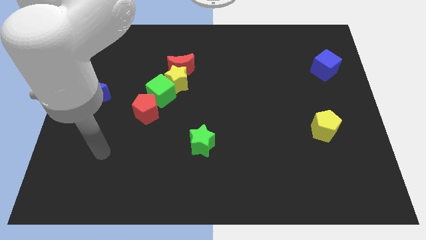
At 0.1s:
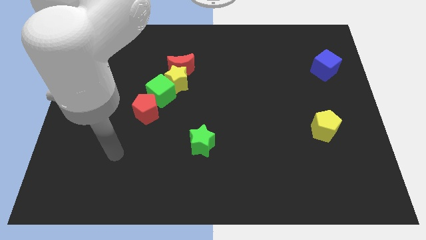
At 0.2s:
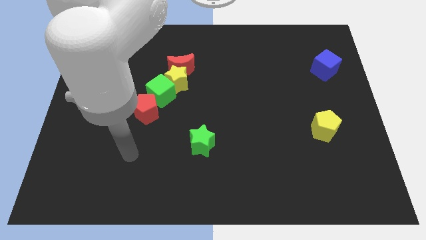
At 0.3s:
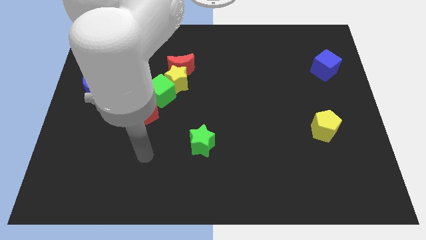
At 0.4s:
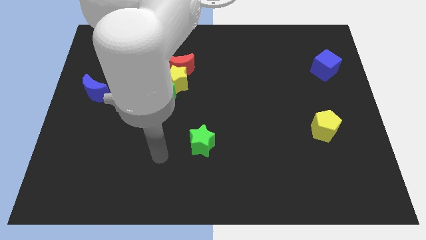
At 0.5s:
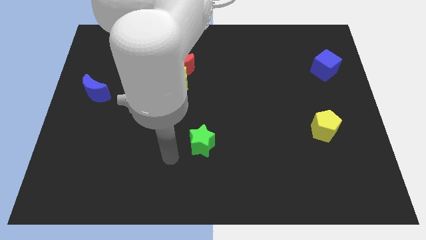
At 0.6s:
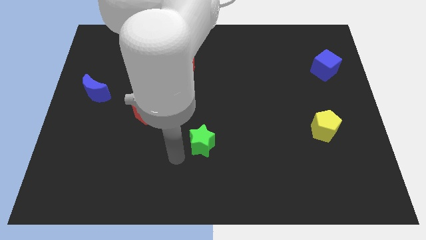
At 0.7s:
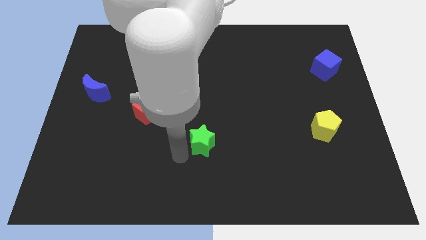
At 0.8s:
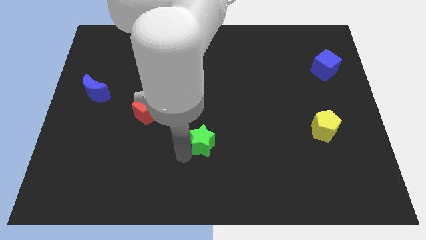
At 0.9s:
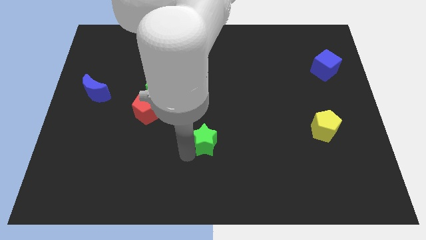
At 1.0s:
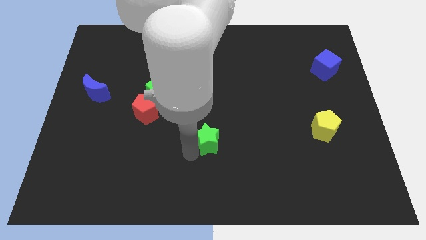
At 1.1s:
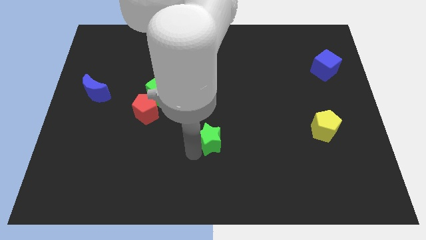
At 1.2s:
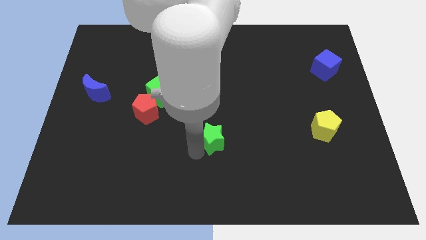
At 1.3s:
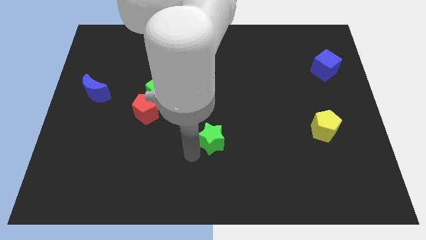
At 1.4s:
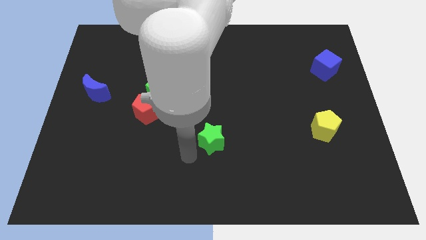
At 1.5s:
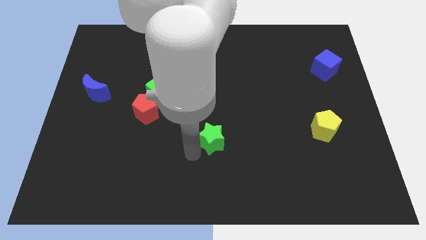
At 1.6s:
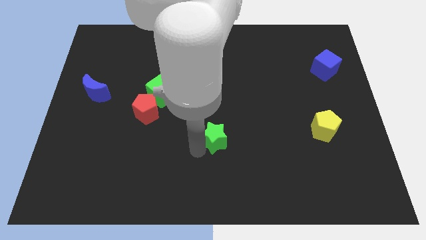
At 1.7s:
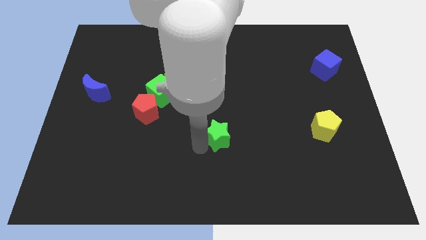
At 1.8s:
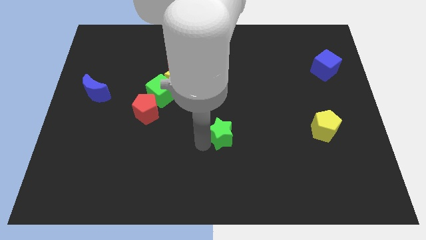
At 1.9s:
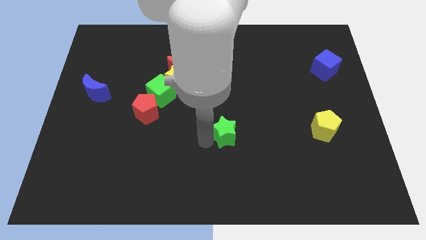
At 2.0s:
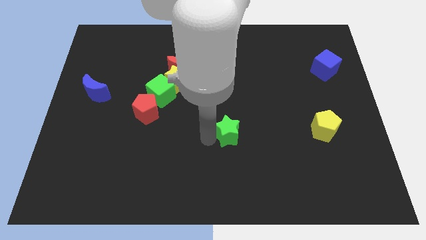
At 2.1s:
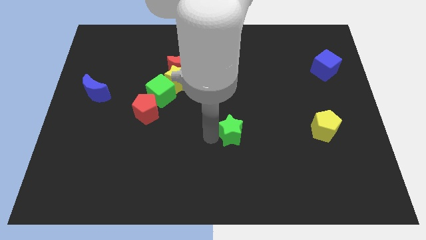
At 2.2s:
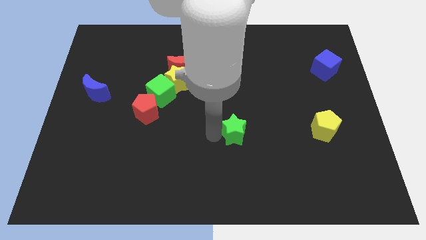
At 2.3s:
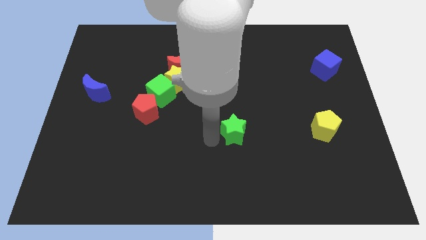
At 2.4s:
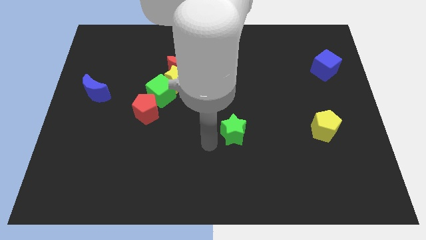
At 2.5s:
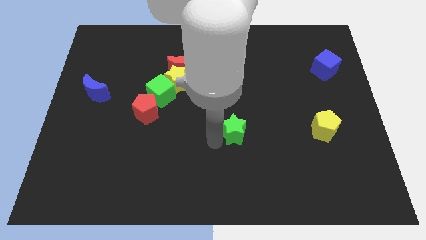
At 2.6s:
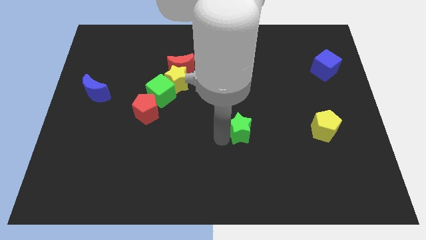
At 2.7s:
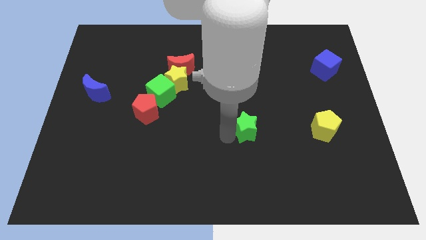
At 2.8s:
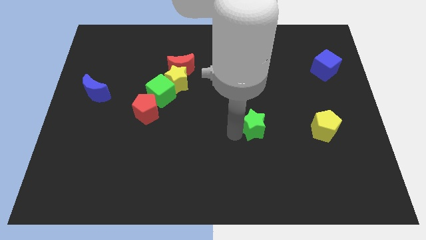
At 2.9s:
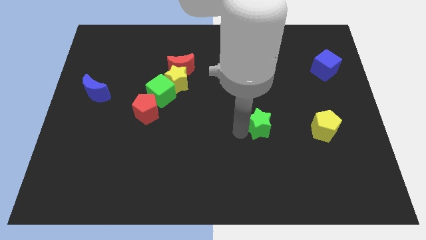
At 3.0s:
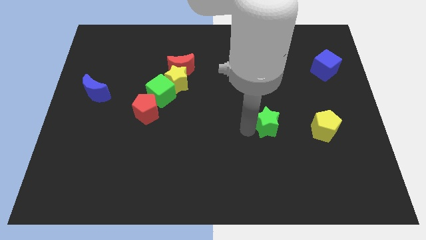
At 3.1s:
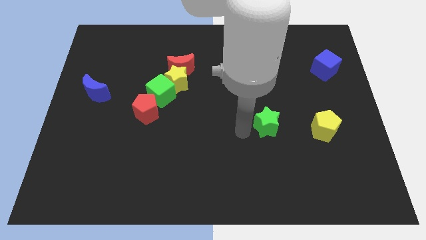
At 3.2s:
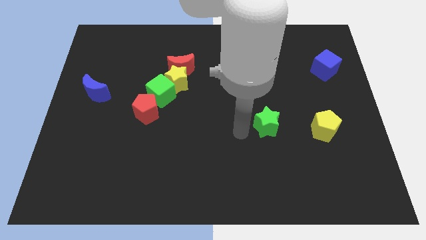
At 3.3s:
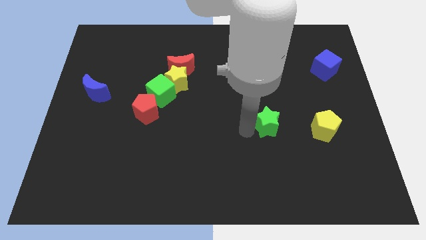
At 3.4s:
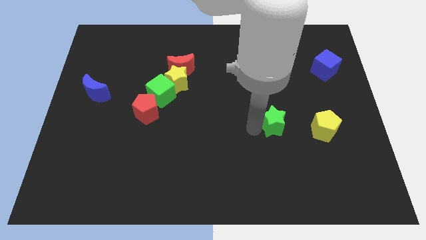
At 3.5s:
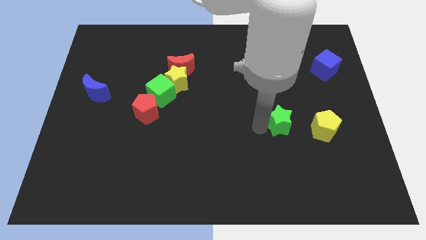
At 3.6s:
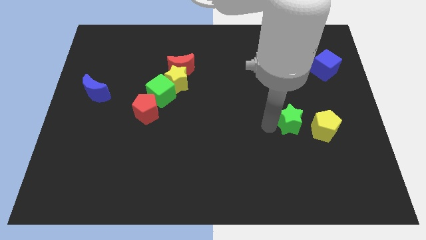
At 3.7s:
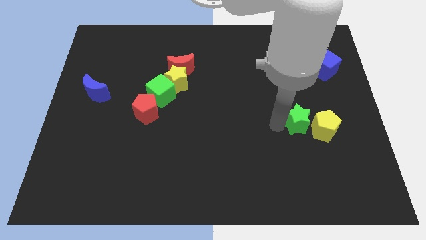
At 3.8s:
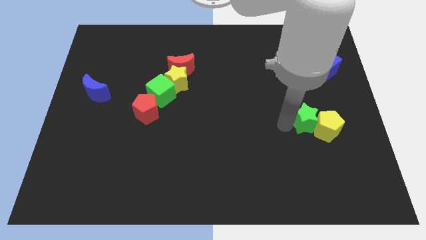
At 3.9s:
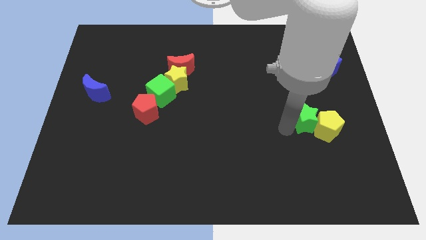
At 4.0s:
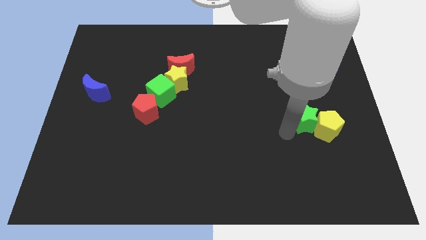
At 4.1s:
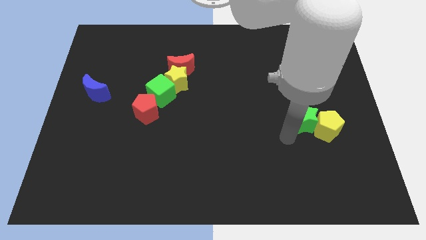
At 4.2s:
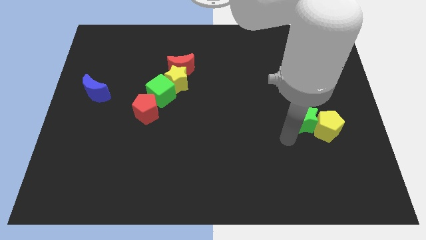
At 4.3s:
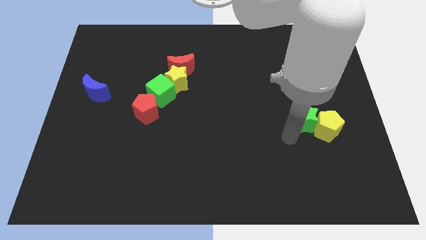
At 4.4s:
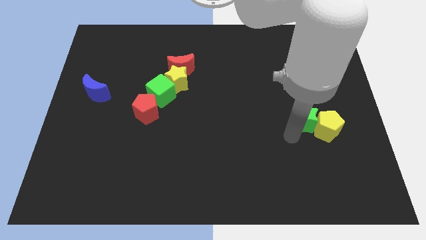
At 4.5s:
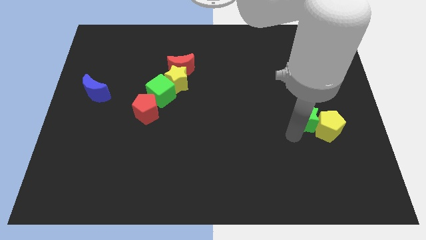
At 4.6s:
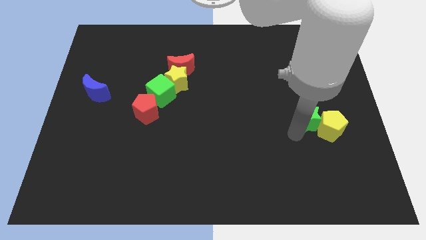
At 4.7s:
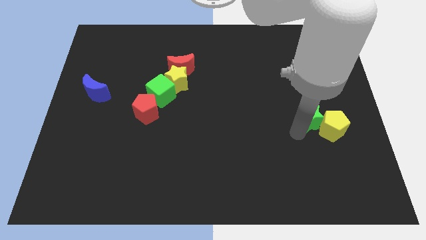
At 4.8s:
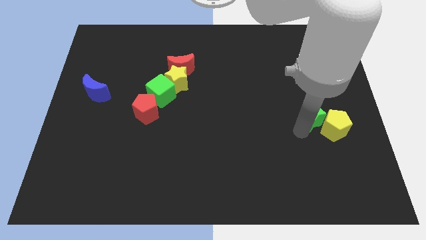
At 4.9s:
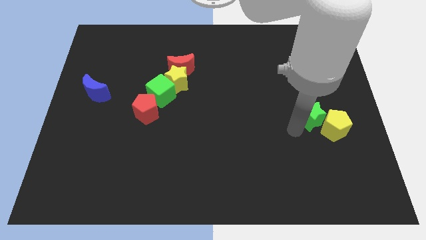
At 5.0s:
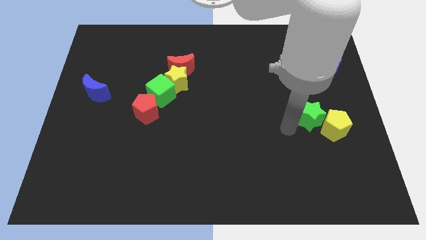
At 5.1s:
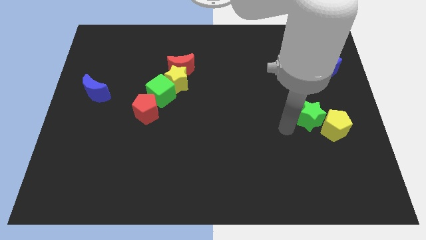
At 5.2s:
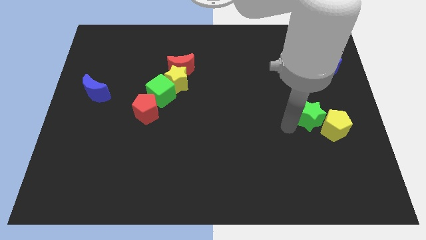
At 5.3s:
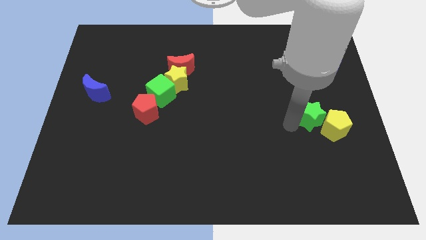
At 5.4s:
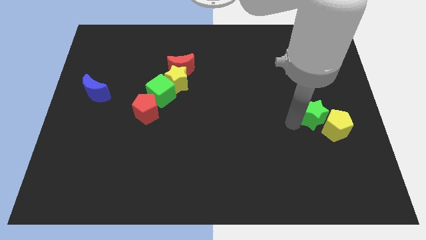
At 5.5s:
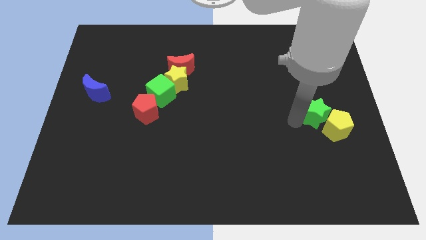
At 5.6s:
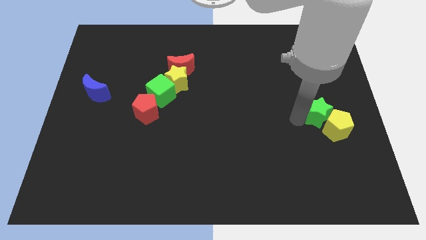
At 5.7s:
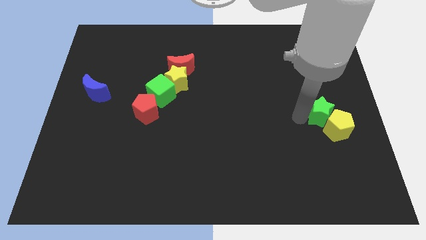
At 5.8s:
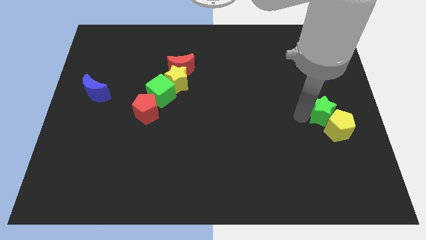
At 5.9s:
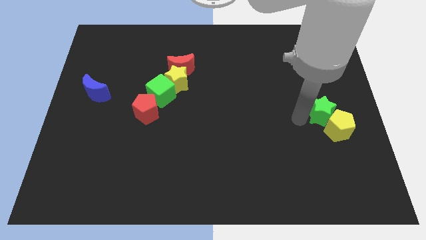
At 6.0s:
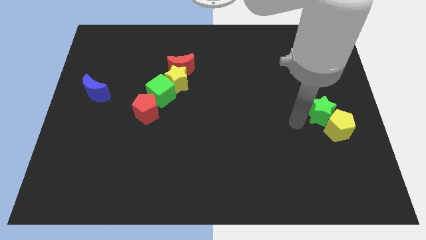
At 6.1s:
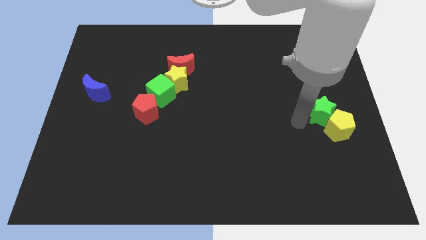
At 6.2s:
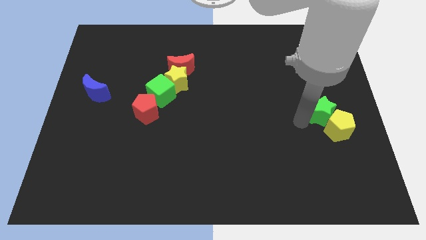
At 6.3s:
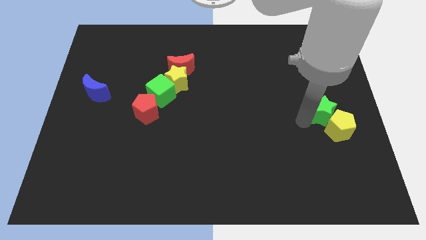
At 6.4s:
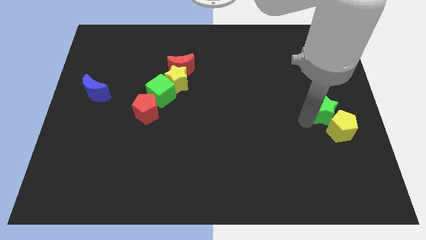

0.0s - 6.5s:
put the green star to the center right

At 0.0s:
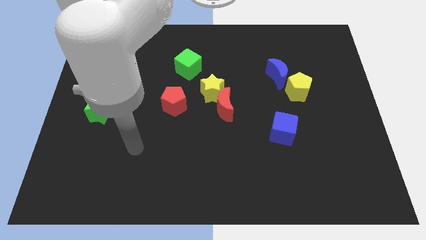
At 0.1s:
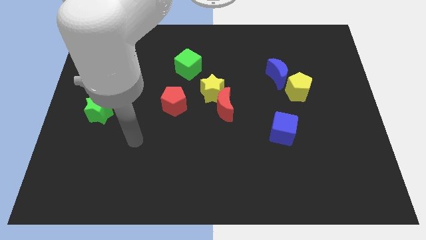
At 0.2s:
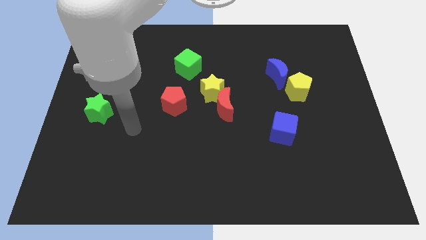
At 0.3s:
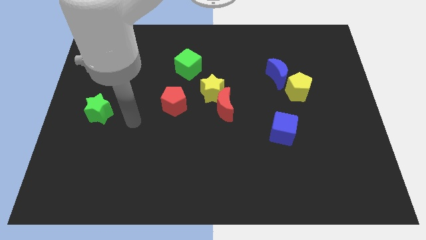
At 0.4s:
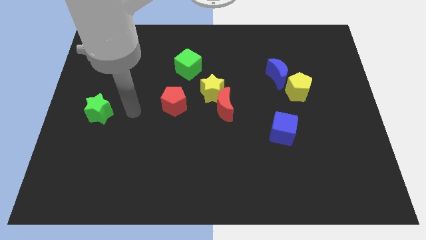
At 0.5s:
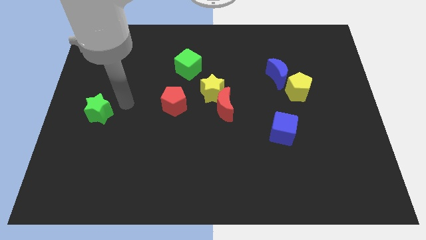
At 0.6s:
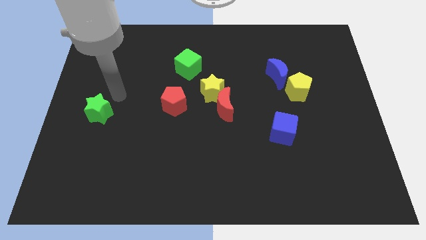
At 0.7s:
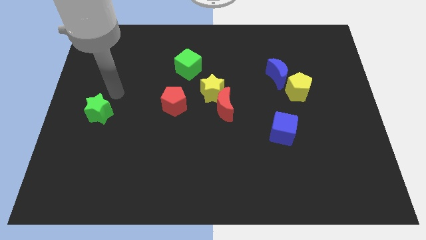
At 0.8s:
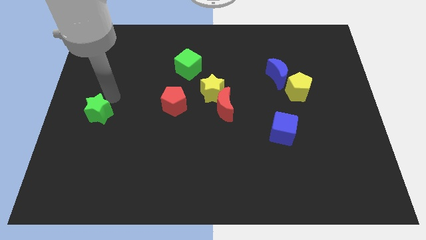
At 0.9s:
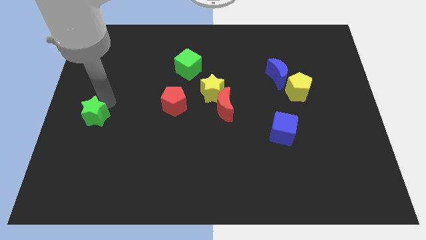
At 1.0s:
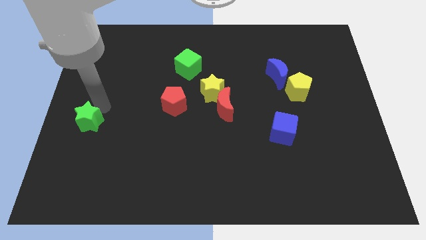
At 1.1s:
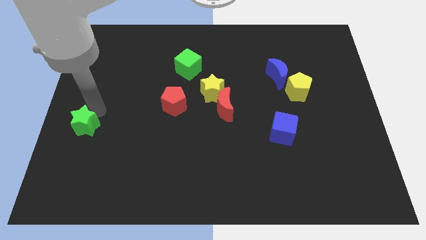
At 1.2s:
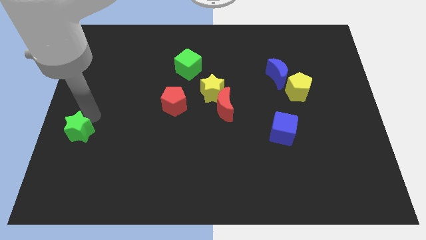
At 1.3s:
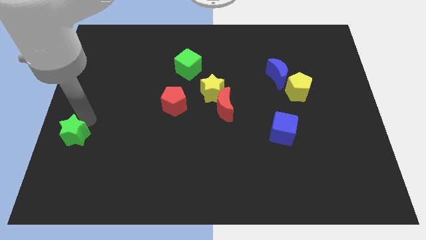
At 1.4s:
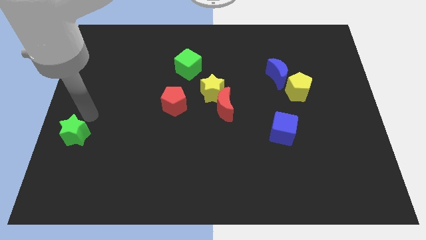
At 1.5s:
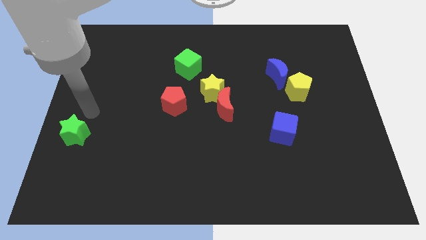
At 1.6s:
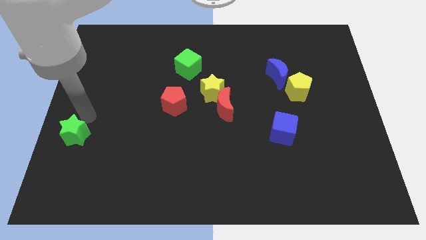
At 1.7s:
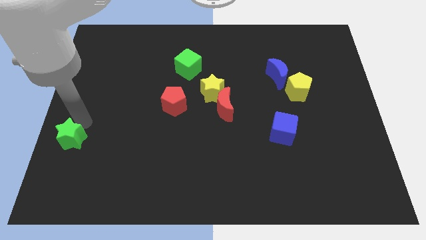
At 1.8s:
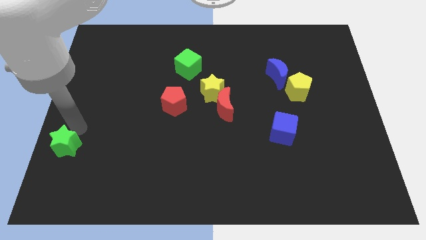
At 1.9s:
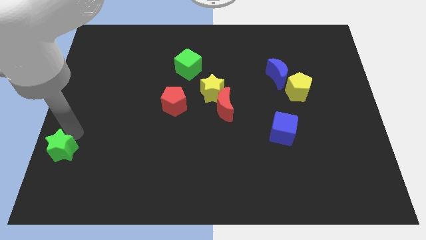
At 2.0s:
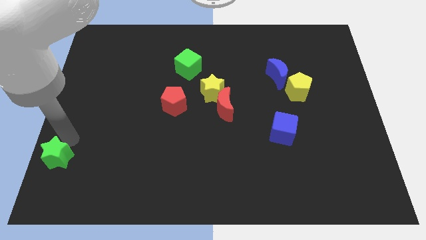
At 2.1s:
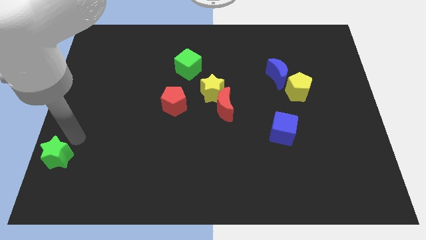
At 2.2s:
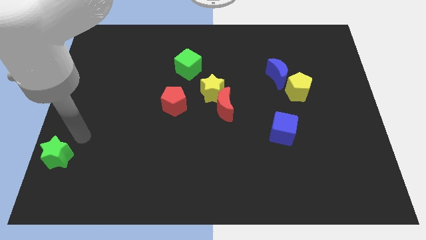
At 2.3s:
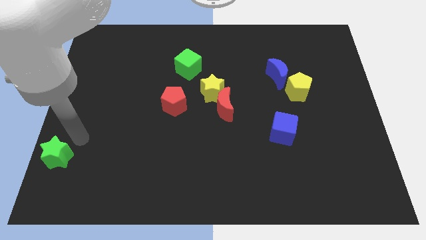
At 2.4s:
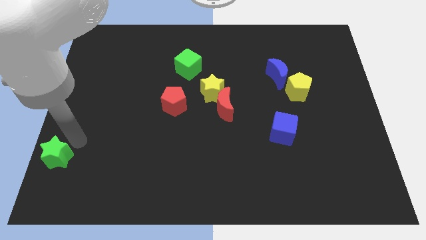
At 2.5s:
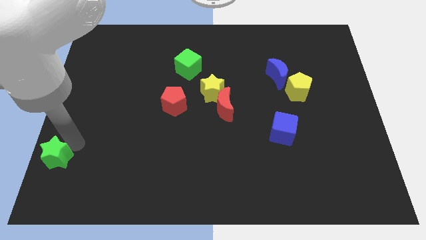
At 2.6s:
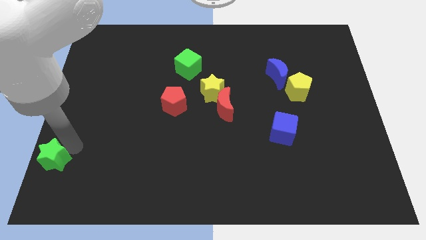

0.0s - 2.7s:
push the green star to the bottom left
